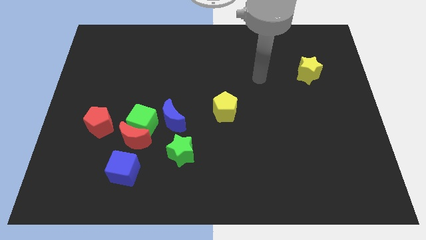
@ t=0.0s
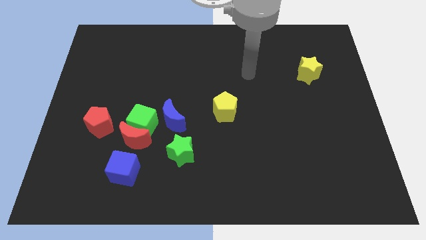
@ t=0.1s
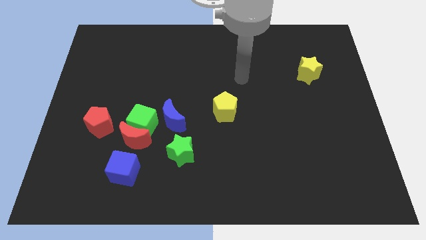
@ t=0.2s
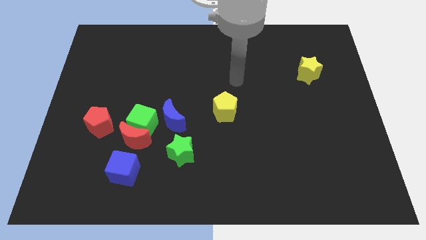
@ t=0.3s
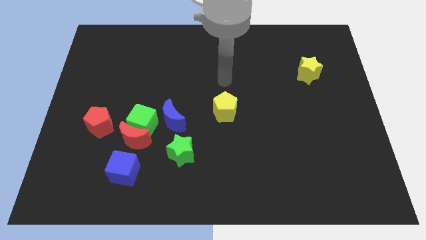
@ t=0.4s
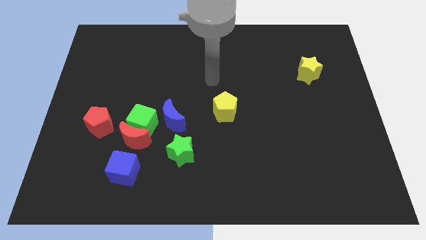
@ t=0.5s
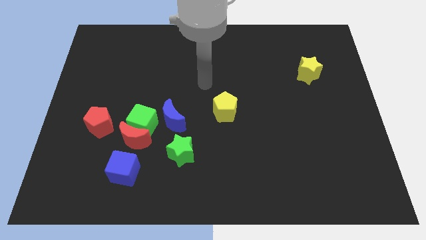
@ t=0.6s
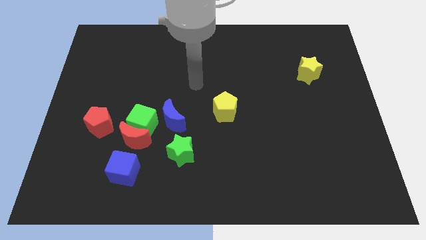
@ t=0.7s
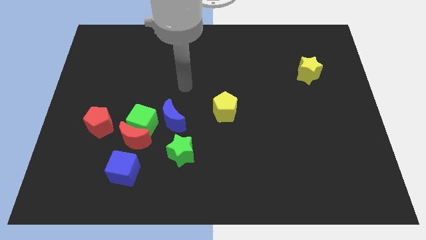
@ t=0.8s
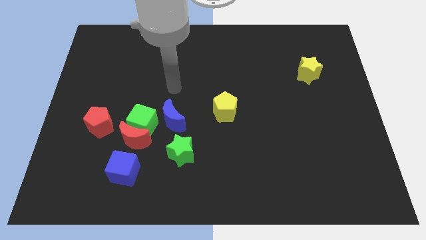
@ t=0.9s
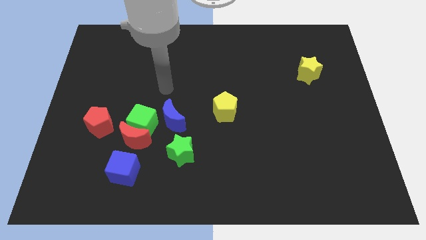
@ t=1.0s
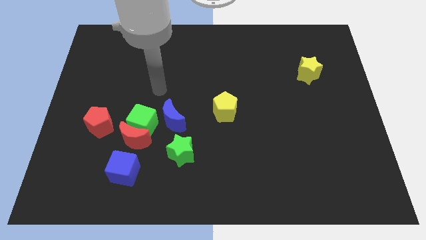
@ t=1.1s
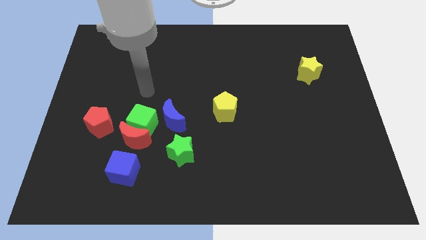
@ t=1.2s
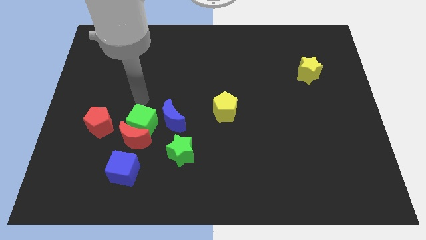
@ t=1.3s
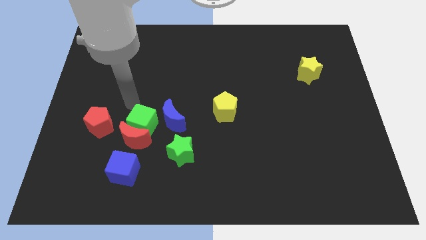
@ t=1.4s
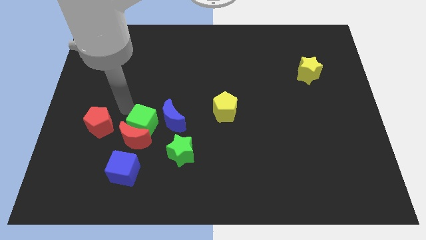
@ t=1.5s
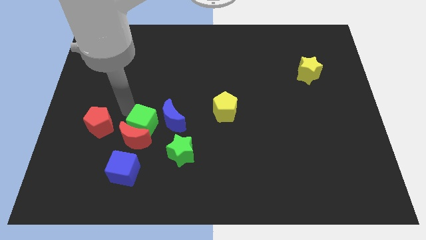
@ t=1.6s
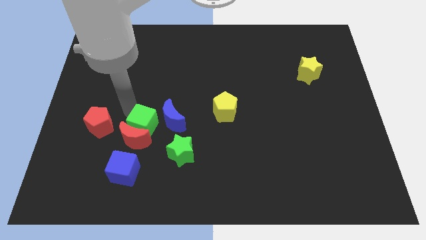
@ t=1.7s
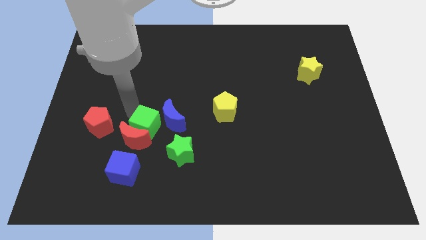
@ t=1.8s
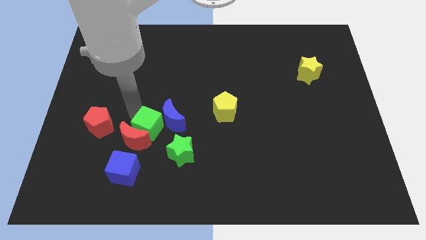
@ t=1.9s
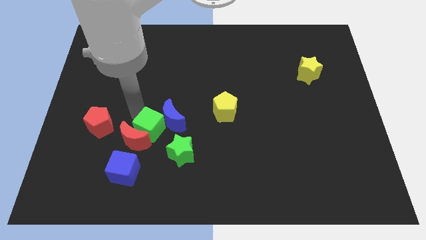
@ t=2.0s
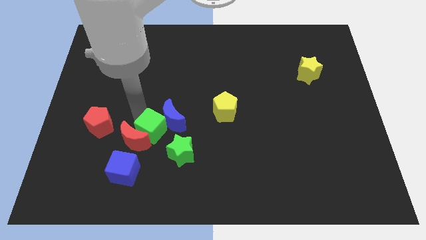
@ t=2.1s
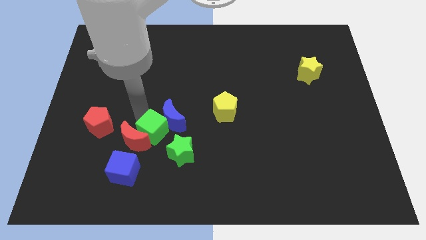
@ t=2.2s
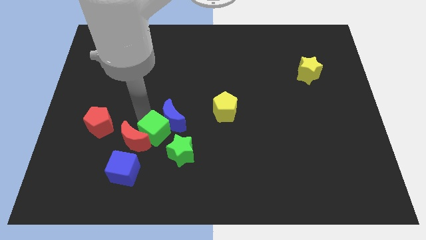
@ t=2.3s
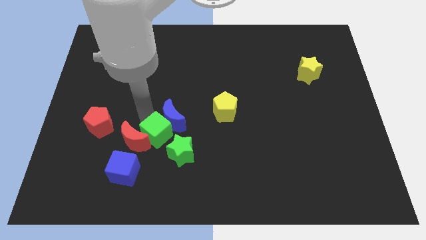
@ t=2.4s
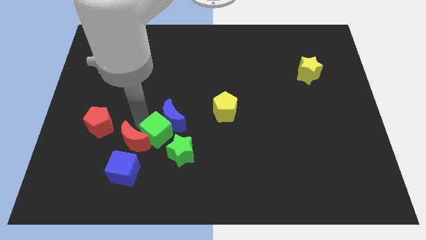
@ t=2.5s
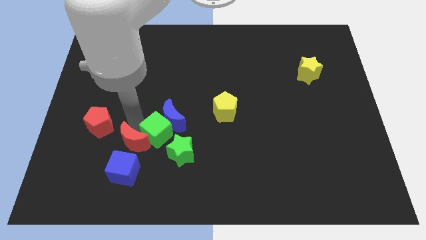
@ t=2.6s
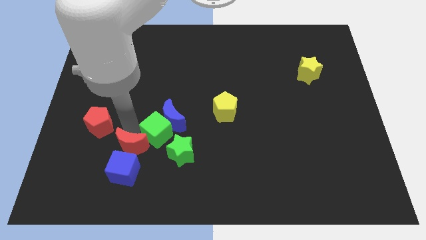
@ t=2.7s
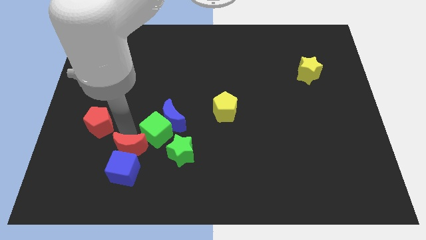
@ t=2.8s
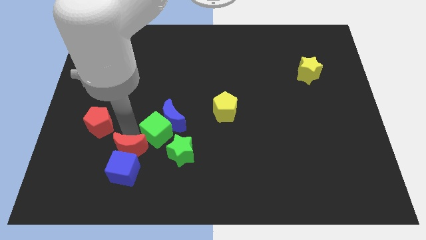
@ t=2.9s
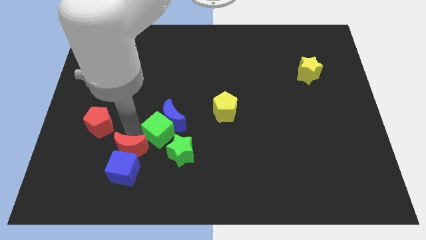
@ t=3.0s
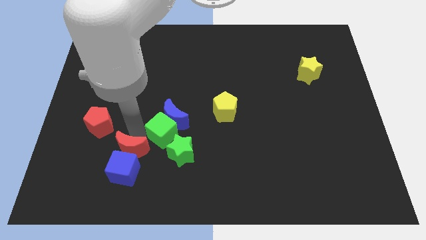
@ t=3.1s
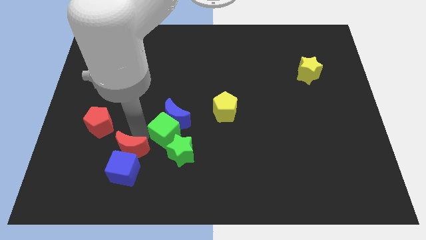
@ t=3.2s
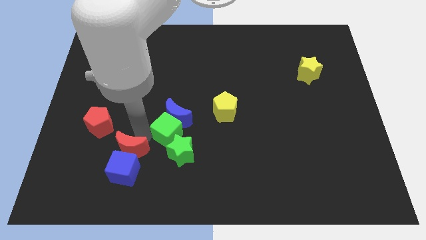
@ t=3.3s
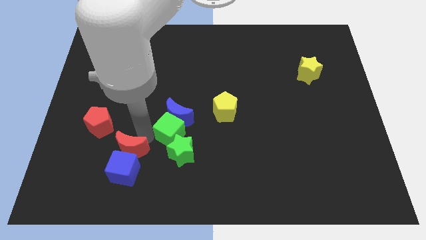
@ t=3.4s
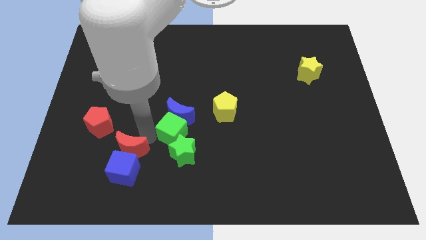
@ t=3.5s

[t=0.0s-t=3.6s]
slightly move the green cube to the right

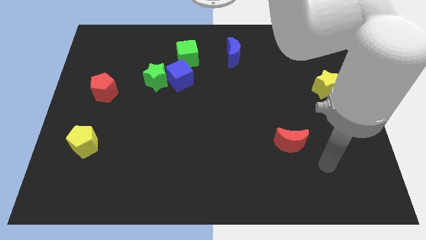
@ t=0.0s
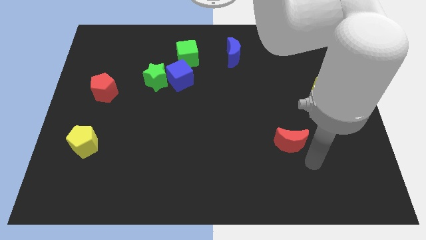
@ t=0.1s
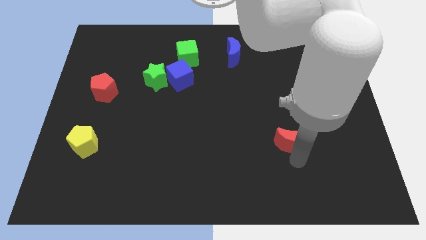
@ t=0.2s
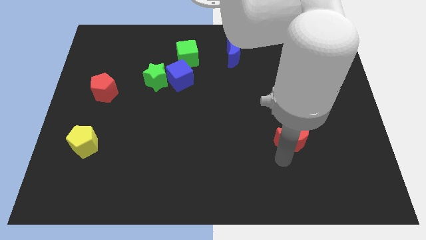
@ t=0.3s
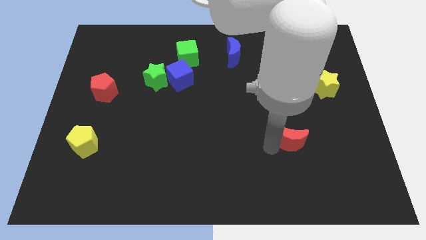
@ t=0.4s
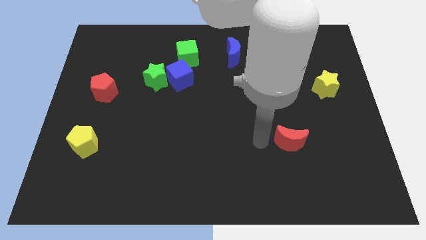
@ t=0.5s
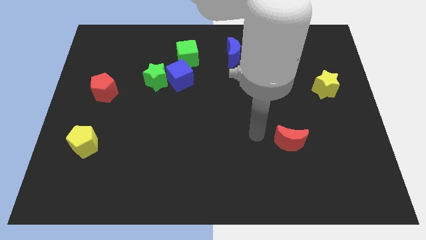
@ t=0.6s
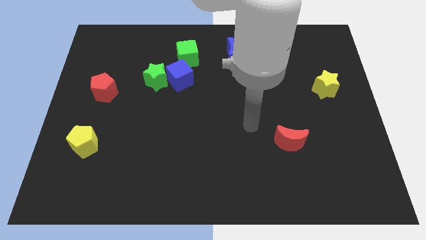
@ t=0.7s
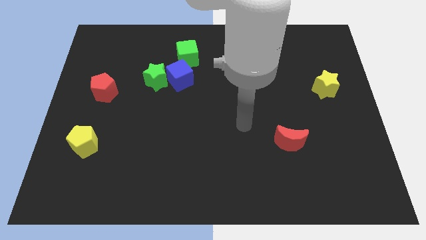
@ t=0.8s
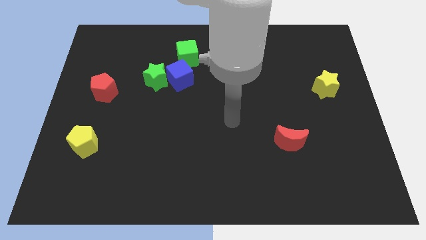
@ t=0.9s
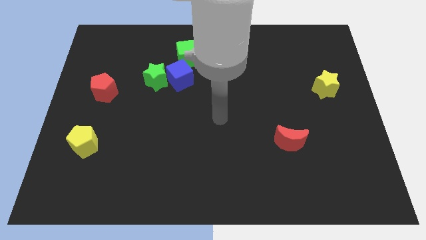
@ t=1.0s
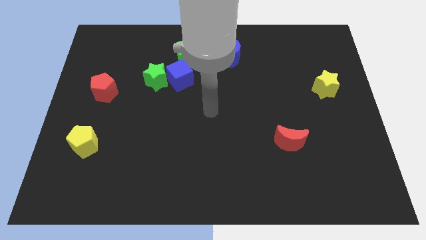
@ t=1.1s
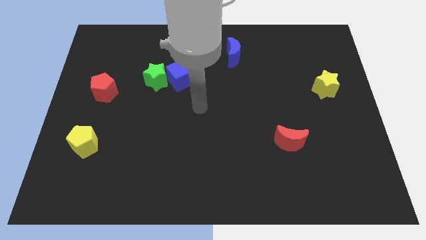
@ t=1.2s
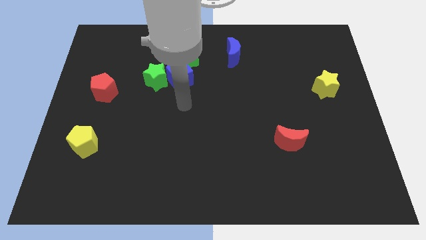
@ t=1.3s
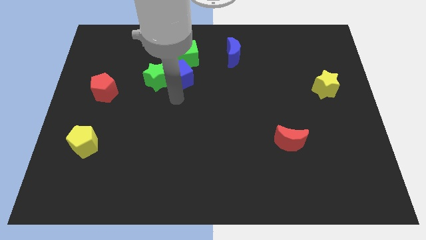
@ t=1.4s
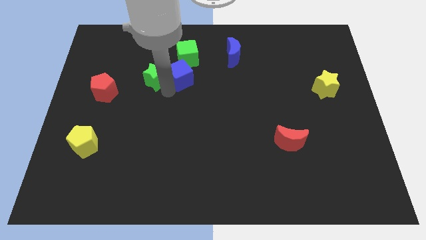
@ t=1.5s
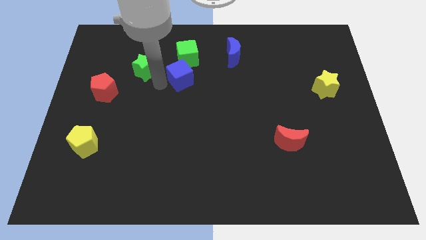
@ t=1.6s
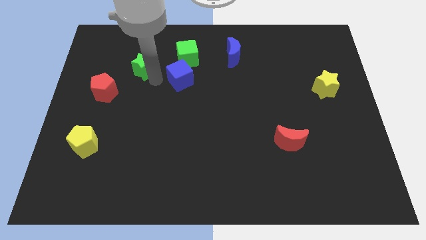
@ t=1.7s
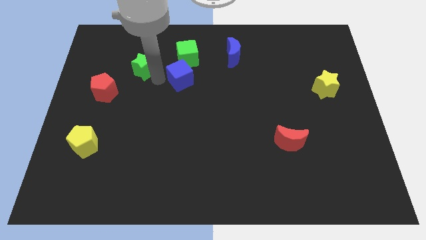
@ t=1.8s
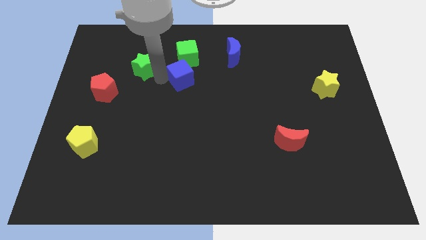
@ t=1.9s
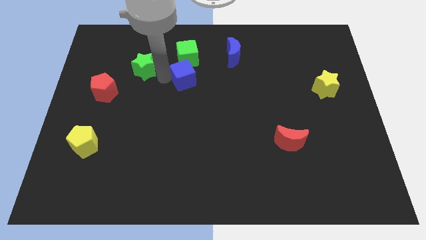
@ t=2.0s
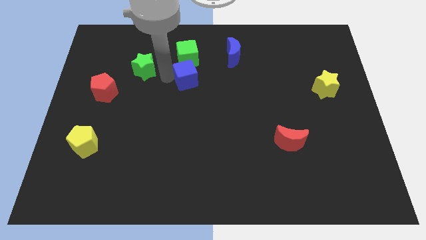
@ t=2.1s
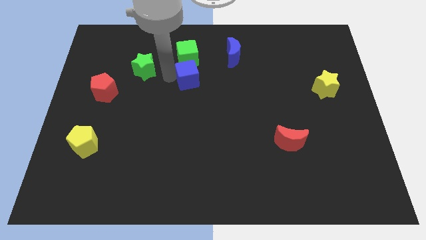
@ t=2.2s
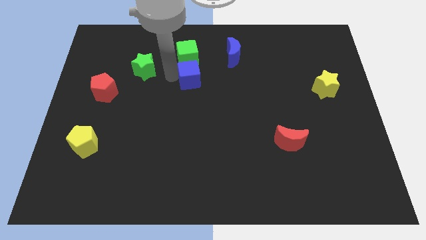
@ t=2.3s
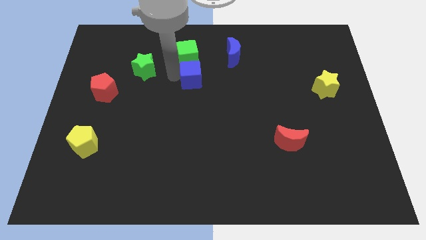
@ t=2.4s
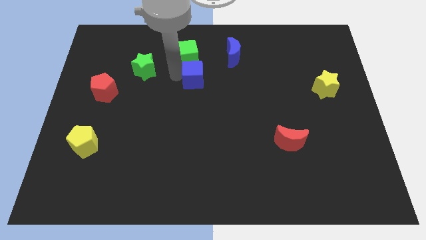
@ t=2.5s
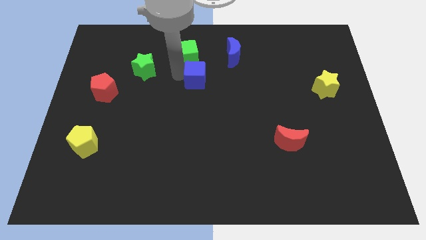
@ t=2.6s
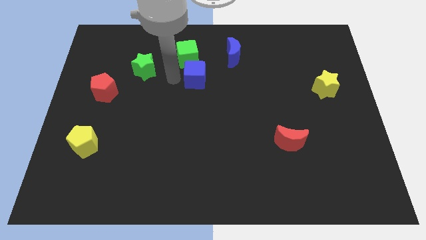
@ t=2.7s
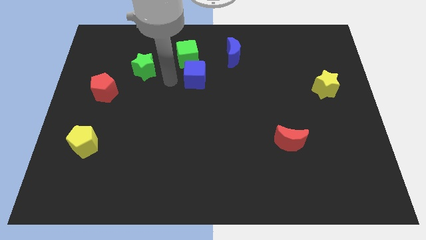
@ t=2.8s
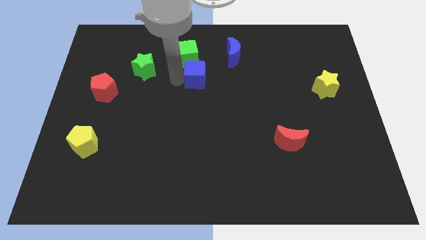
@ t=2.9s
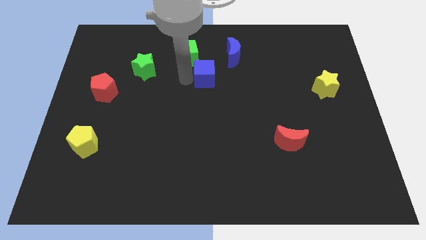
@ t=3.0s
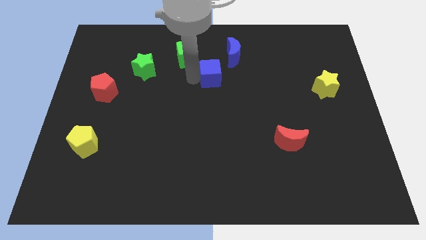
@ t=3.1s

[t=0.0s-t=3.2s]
slide the blue cube to the right a little bit

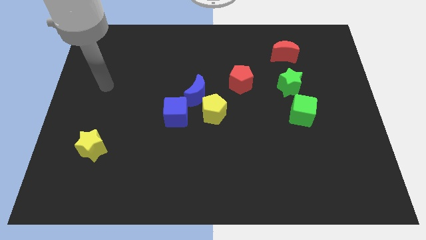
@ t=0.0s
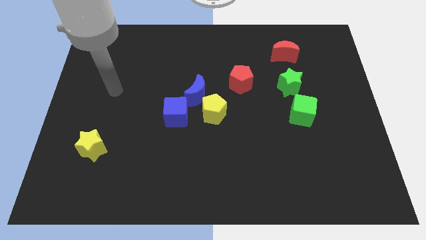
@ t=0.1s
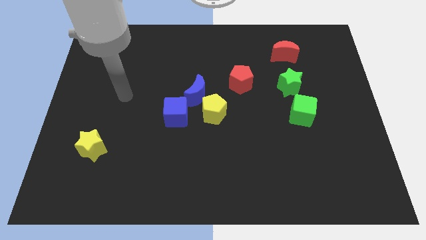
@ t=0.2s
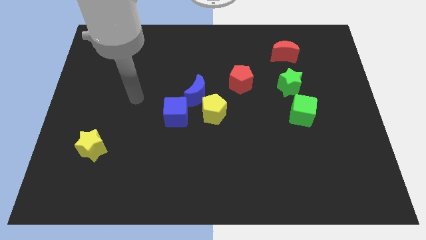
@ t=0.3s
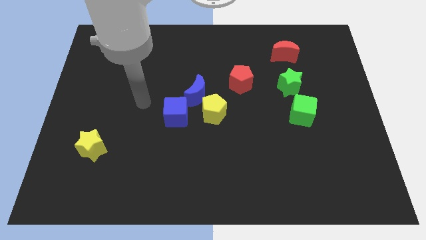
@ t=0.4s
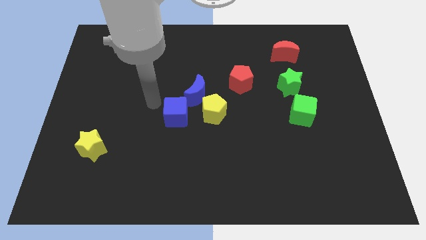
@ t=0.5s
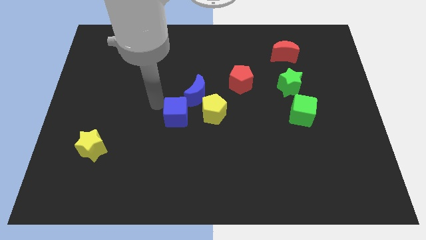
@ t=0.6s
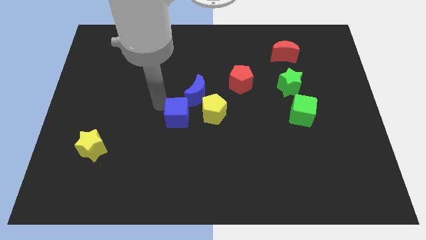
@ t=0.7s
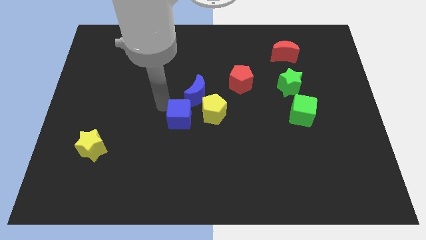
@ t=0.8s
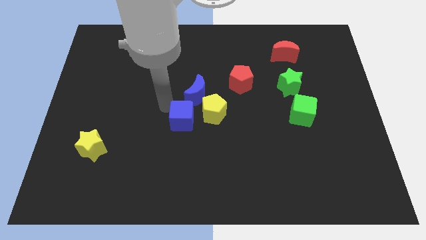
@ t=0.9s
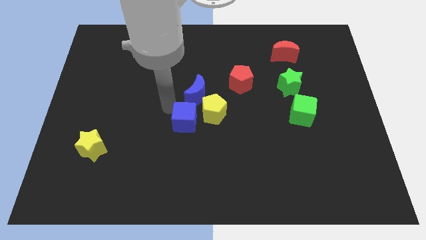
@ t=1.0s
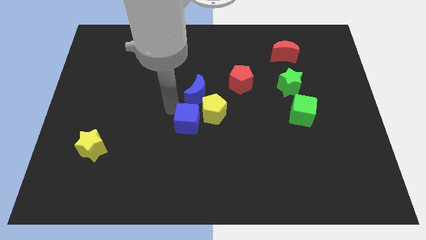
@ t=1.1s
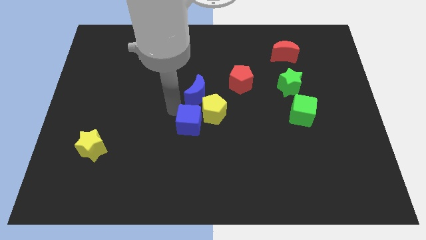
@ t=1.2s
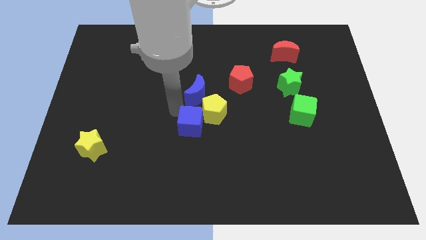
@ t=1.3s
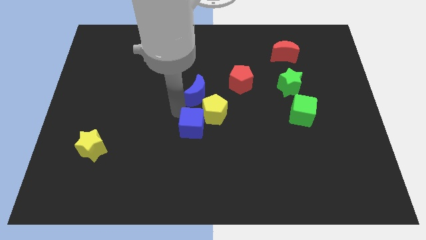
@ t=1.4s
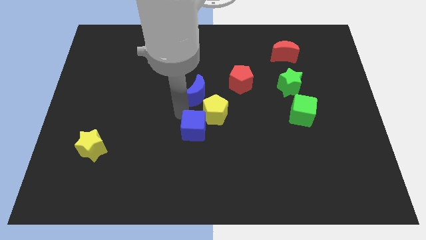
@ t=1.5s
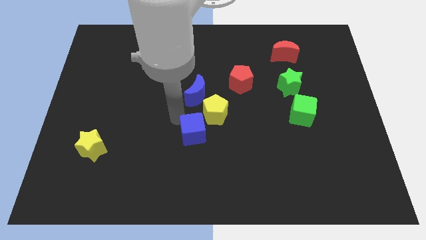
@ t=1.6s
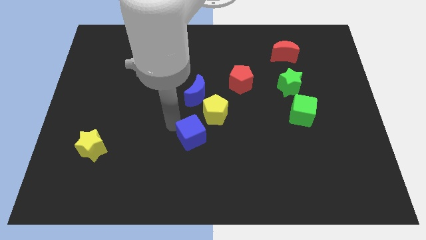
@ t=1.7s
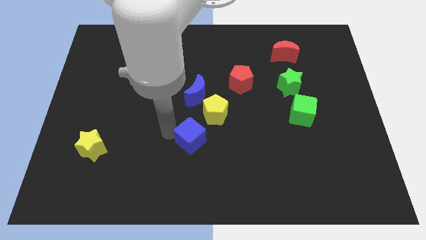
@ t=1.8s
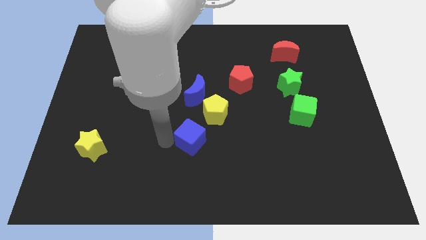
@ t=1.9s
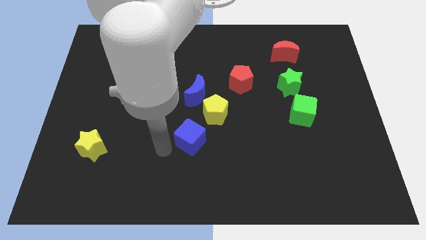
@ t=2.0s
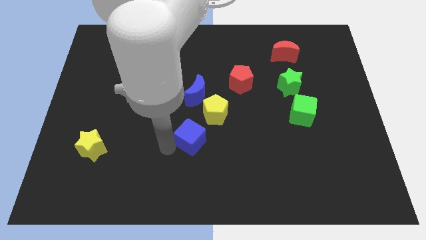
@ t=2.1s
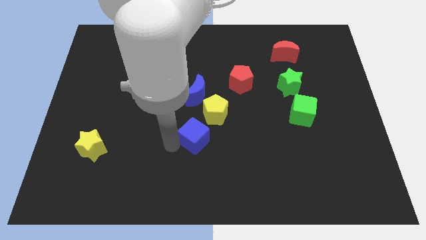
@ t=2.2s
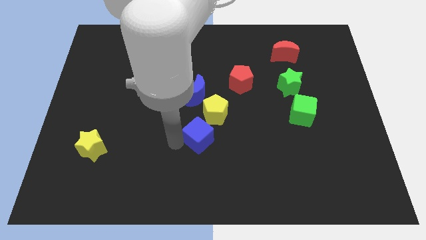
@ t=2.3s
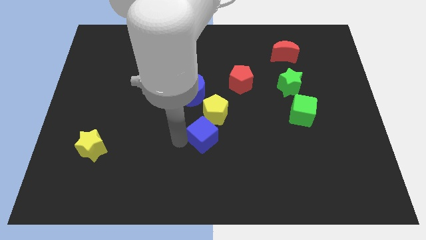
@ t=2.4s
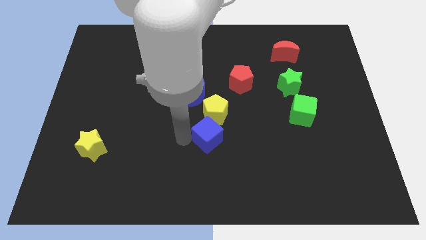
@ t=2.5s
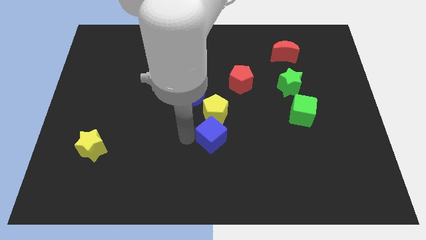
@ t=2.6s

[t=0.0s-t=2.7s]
push the blue cube somewhat right
